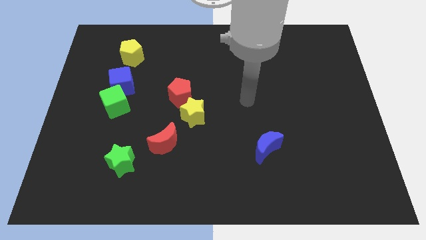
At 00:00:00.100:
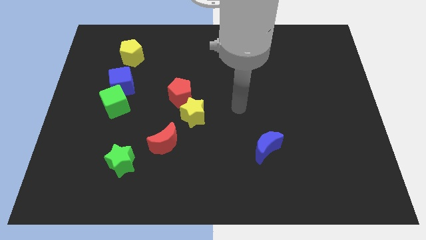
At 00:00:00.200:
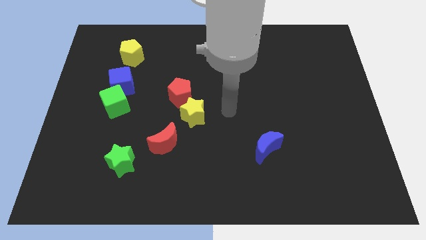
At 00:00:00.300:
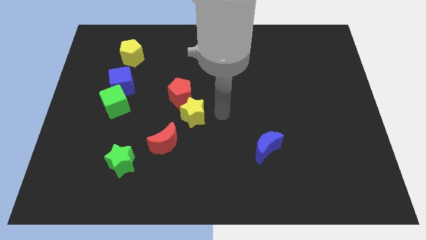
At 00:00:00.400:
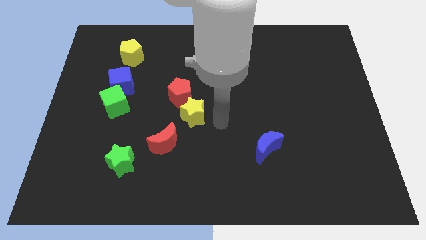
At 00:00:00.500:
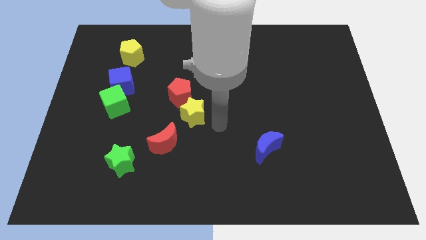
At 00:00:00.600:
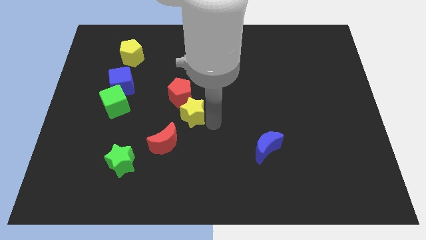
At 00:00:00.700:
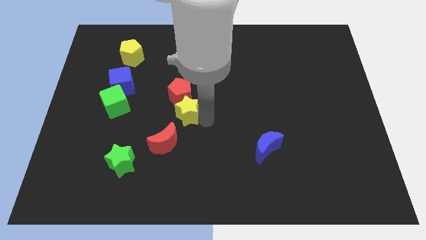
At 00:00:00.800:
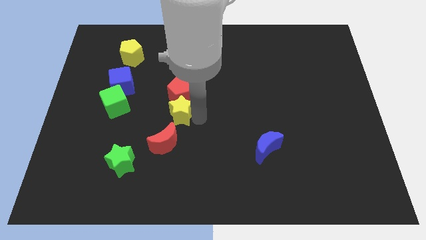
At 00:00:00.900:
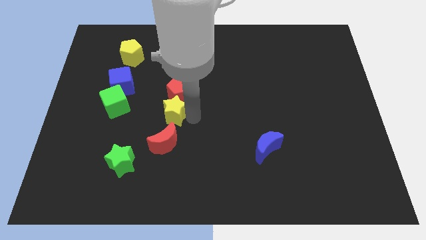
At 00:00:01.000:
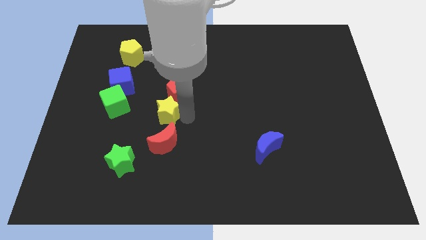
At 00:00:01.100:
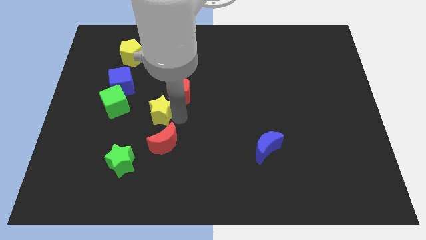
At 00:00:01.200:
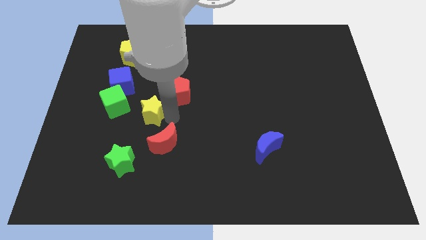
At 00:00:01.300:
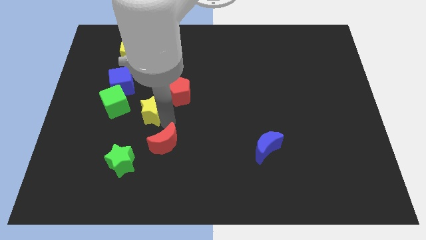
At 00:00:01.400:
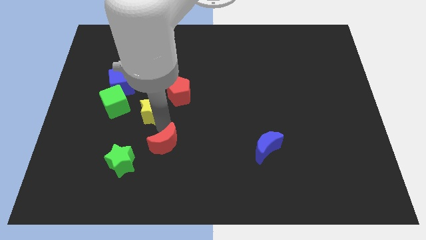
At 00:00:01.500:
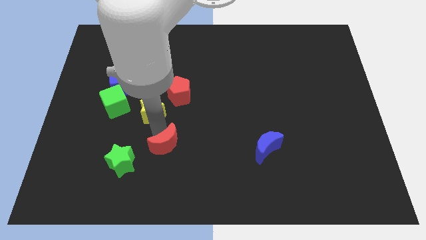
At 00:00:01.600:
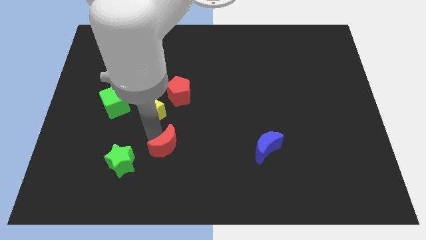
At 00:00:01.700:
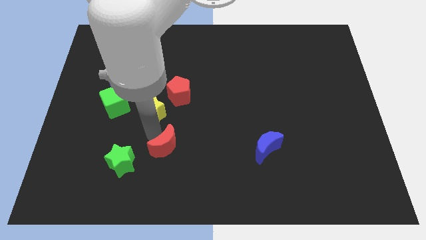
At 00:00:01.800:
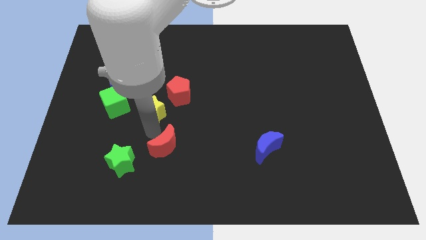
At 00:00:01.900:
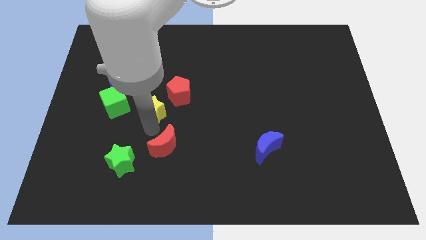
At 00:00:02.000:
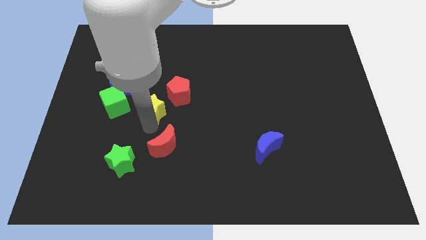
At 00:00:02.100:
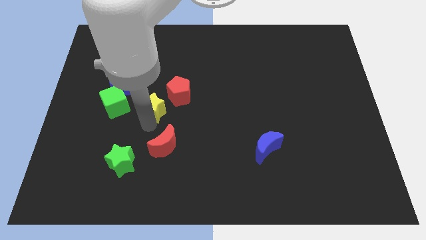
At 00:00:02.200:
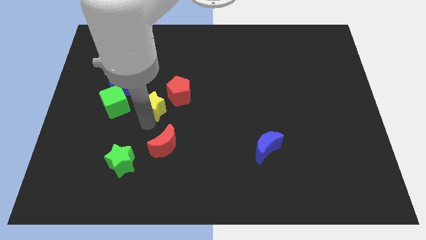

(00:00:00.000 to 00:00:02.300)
push the yellow star a bit diagonally up and to the left

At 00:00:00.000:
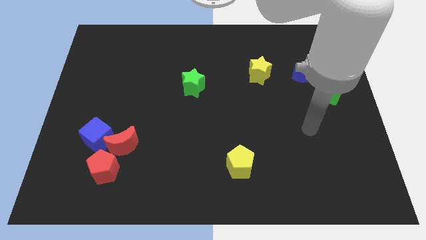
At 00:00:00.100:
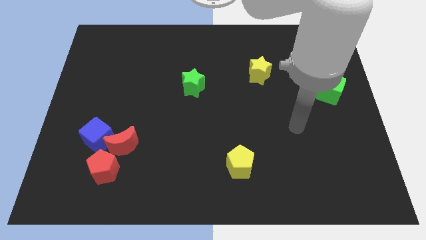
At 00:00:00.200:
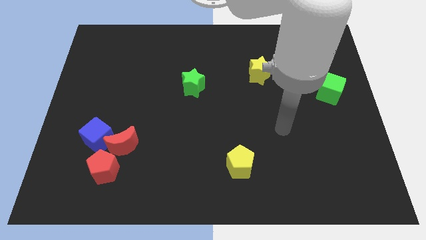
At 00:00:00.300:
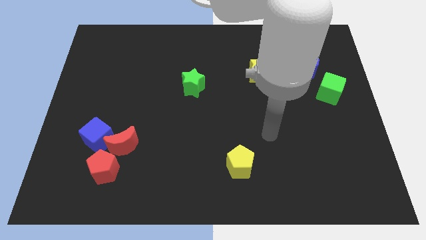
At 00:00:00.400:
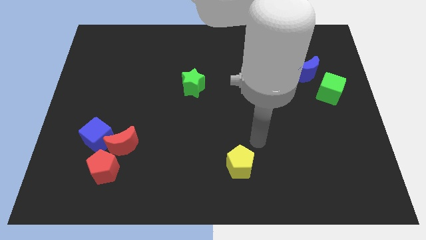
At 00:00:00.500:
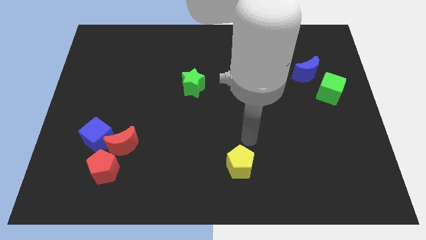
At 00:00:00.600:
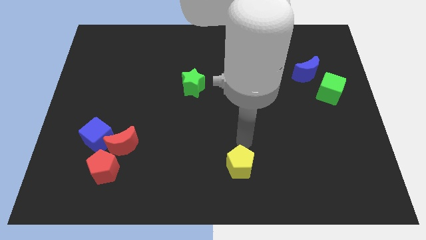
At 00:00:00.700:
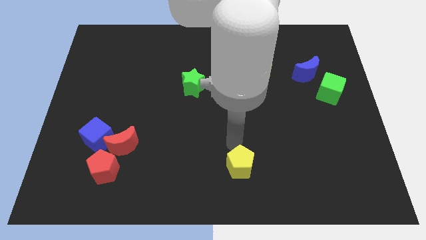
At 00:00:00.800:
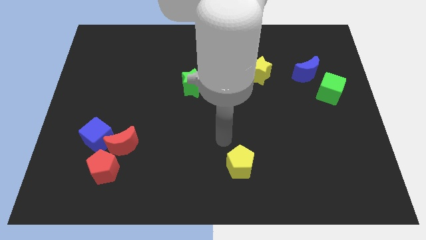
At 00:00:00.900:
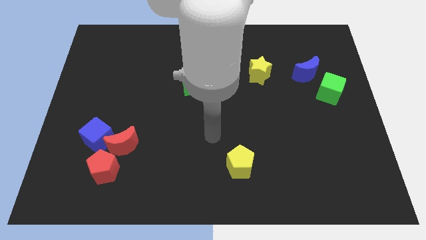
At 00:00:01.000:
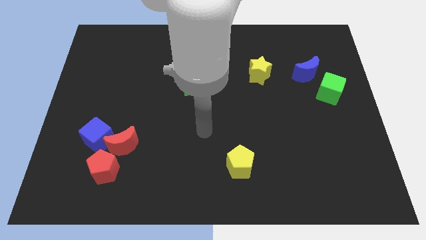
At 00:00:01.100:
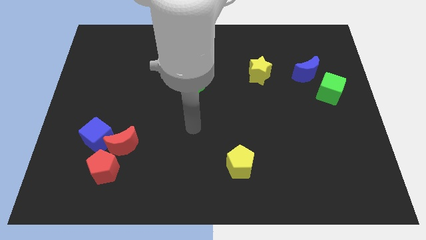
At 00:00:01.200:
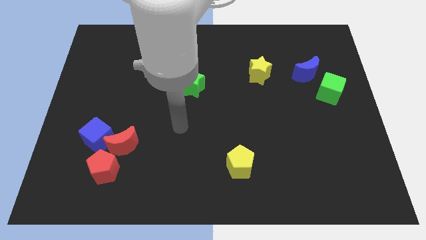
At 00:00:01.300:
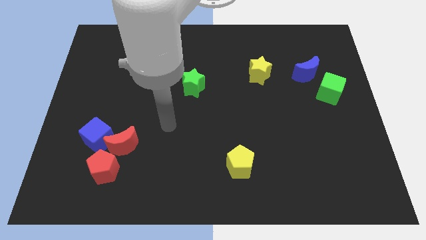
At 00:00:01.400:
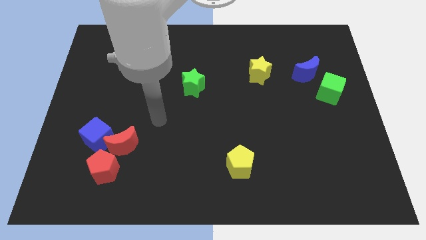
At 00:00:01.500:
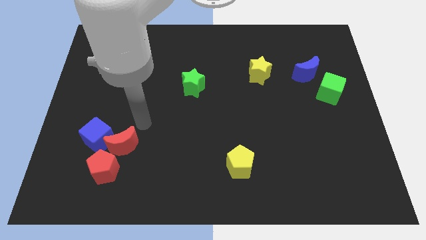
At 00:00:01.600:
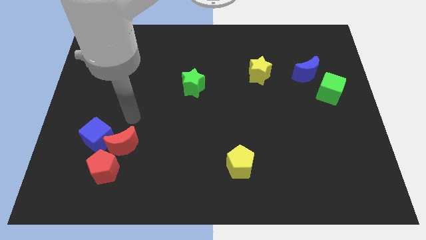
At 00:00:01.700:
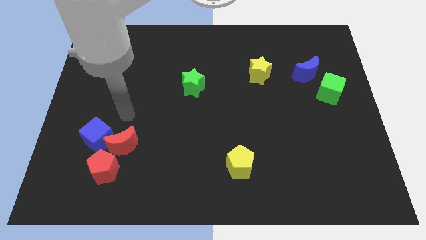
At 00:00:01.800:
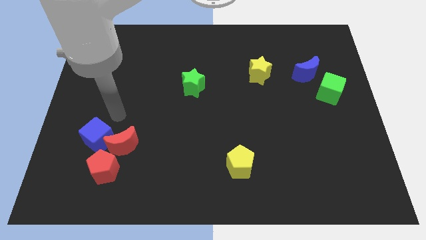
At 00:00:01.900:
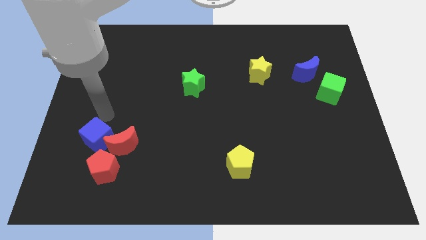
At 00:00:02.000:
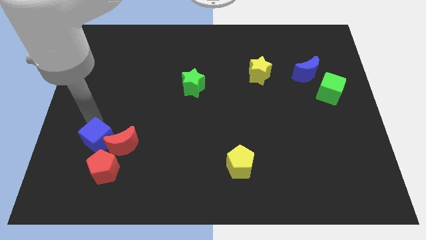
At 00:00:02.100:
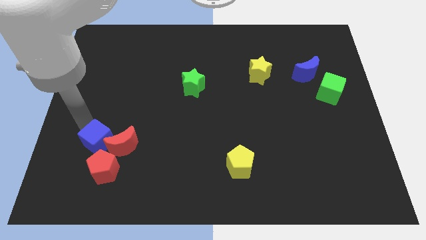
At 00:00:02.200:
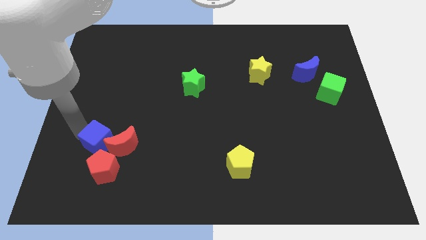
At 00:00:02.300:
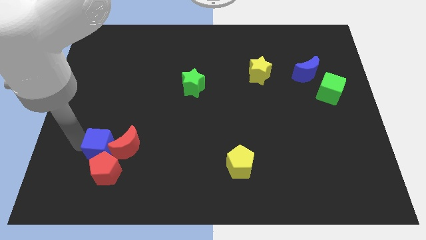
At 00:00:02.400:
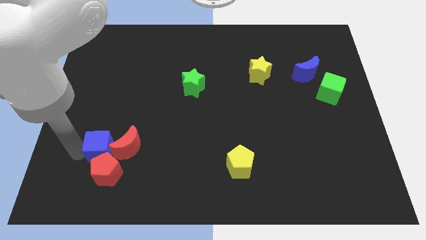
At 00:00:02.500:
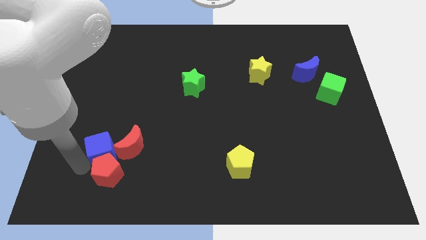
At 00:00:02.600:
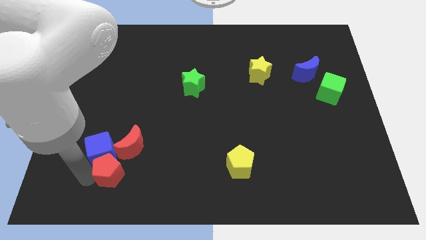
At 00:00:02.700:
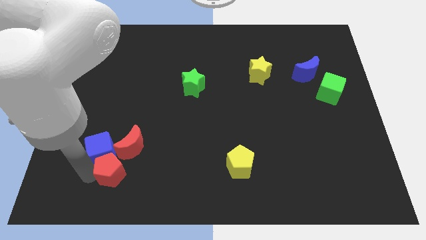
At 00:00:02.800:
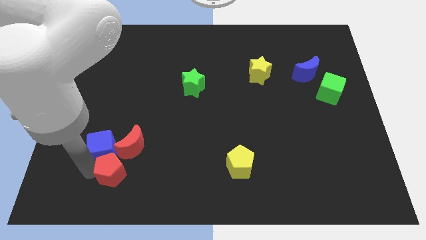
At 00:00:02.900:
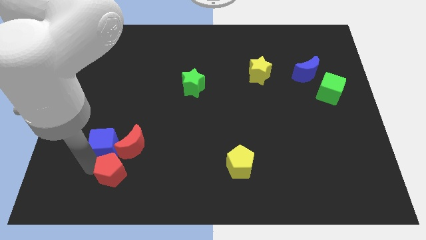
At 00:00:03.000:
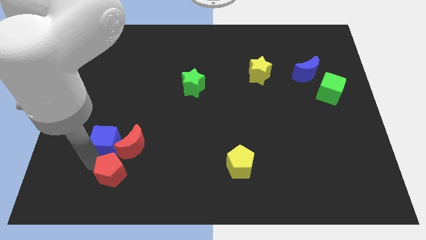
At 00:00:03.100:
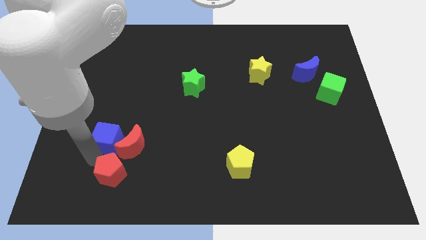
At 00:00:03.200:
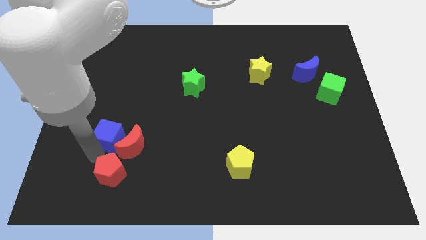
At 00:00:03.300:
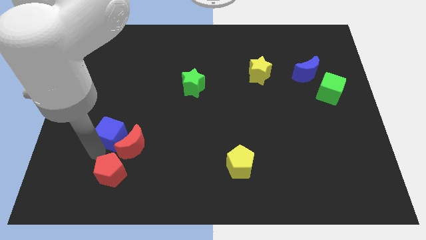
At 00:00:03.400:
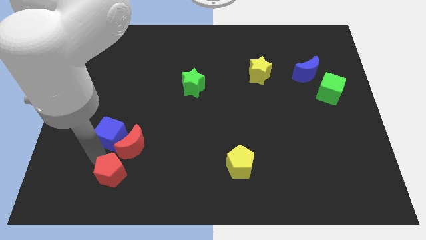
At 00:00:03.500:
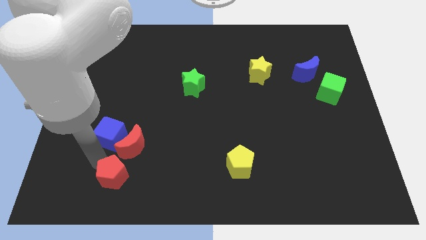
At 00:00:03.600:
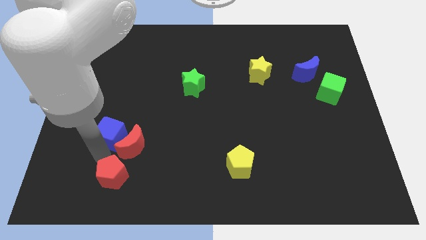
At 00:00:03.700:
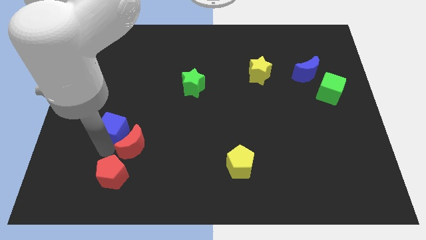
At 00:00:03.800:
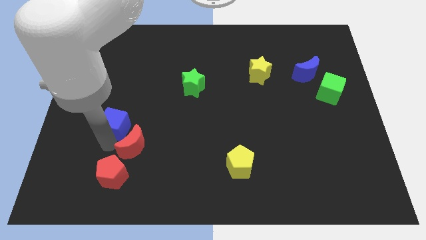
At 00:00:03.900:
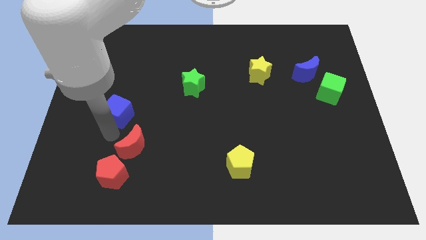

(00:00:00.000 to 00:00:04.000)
move the blue cube a little bit upwards and then right

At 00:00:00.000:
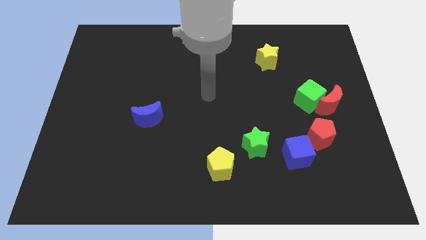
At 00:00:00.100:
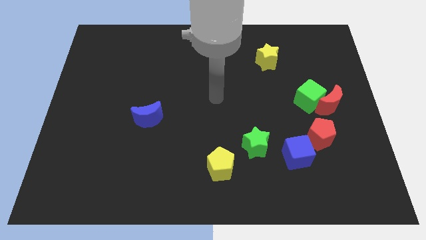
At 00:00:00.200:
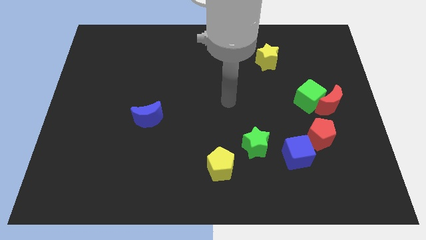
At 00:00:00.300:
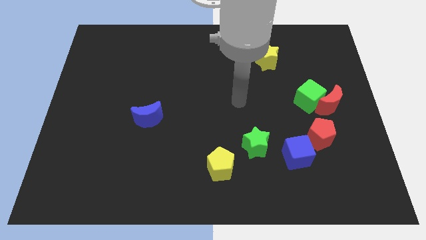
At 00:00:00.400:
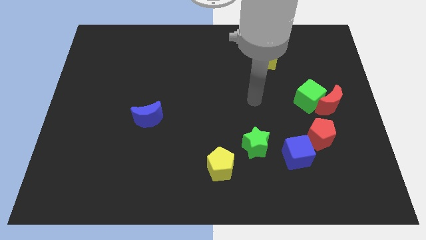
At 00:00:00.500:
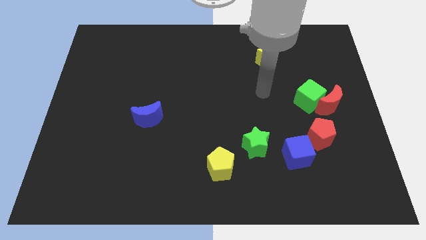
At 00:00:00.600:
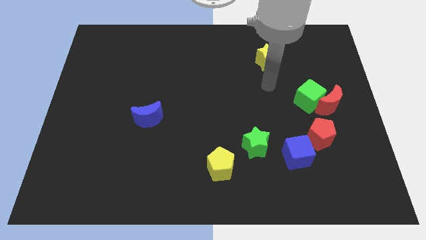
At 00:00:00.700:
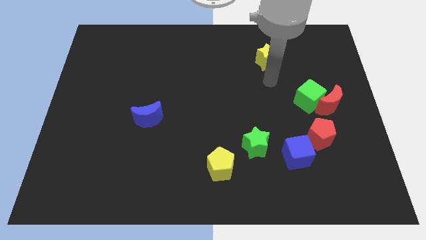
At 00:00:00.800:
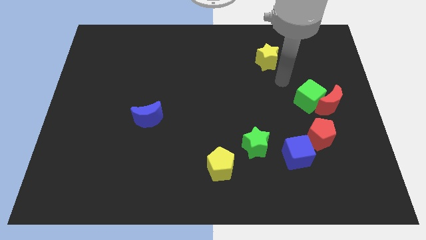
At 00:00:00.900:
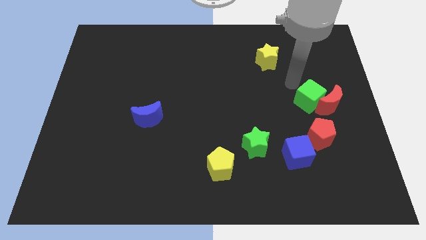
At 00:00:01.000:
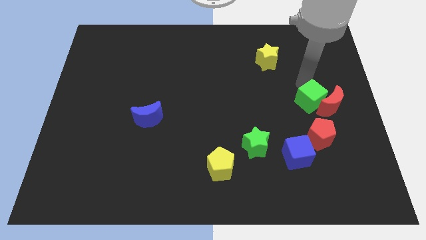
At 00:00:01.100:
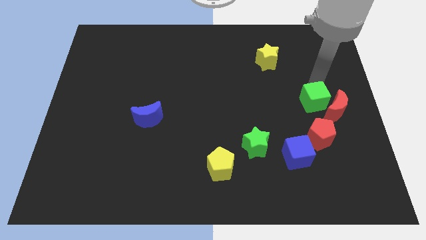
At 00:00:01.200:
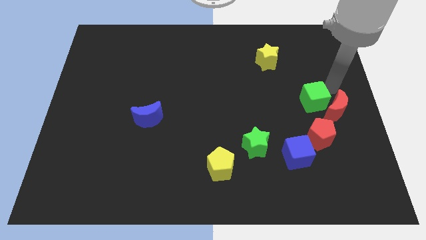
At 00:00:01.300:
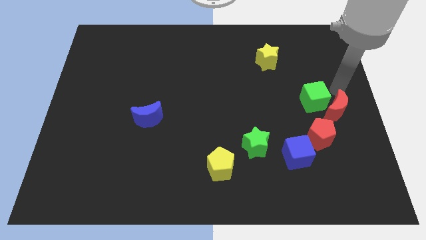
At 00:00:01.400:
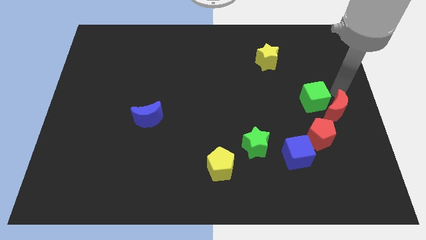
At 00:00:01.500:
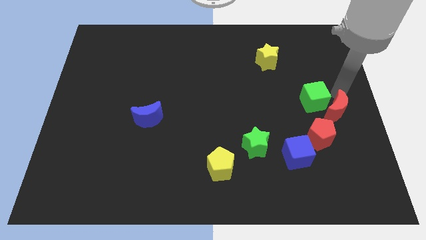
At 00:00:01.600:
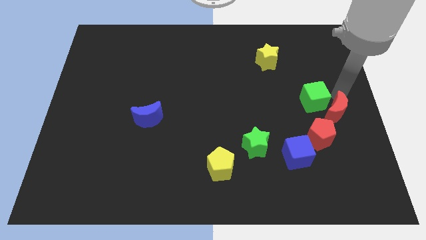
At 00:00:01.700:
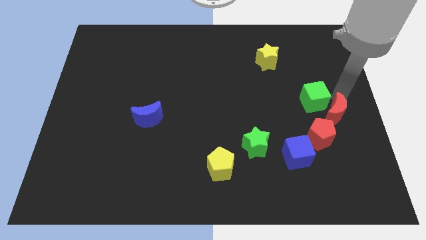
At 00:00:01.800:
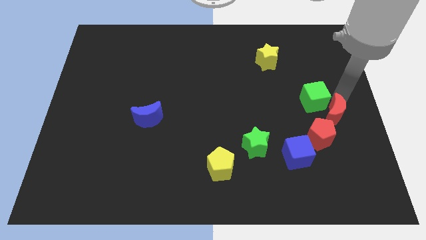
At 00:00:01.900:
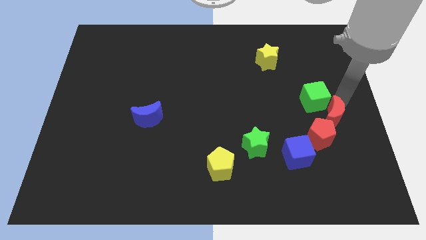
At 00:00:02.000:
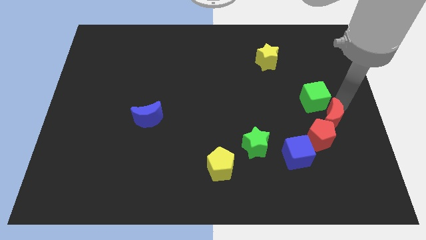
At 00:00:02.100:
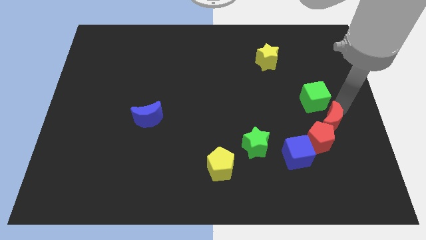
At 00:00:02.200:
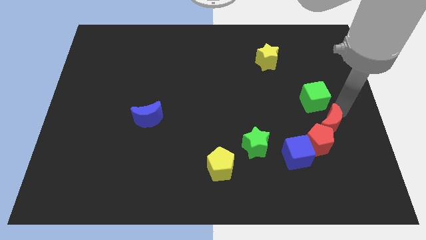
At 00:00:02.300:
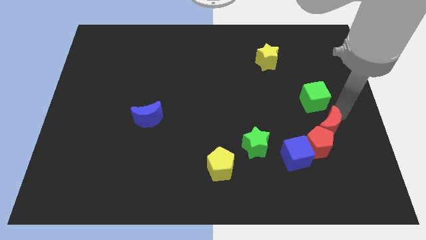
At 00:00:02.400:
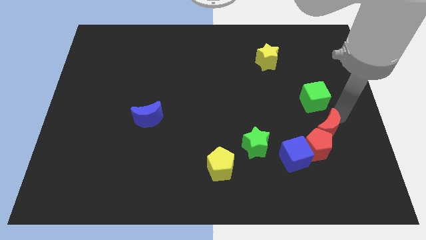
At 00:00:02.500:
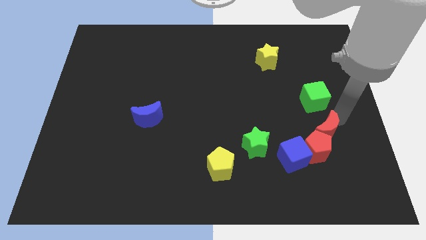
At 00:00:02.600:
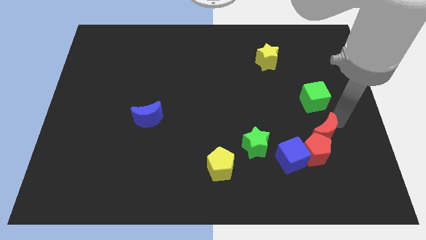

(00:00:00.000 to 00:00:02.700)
push the red moon a little down and then to the left
